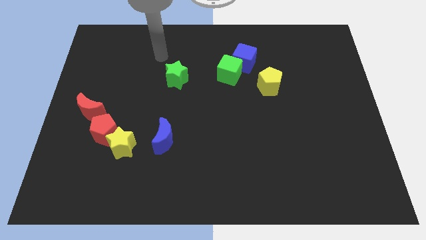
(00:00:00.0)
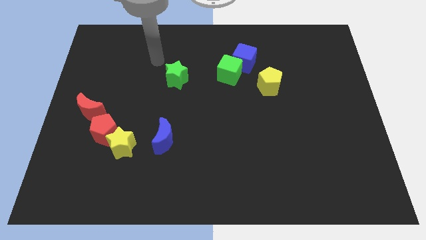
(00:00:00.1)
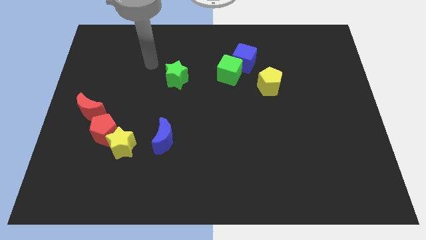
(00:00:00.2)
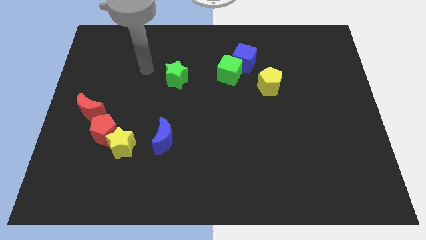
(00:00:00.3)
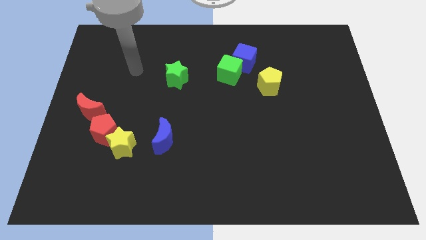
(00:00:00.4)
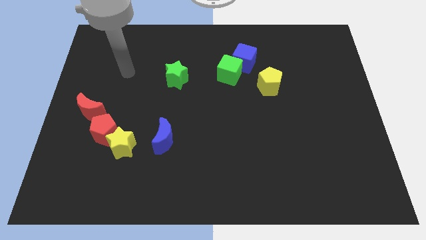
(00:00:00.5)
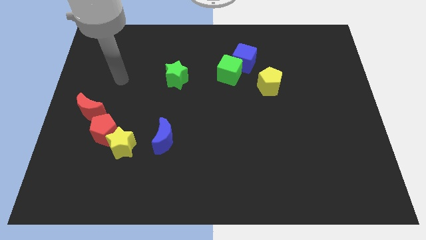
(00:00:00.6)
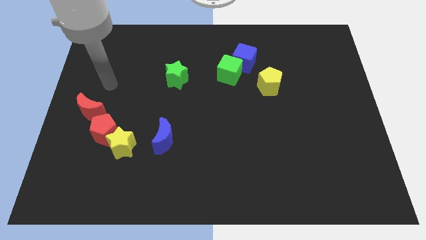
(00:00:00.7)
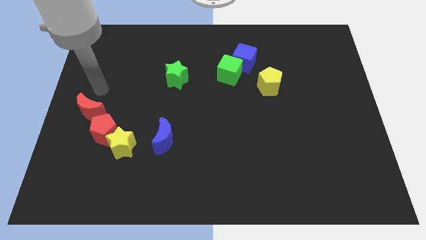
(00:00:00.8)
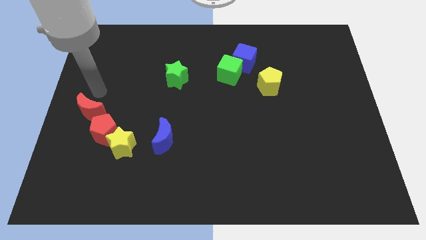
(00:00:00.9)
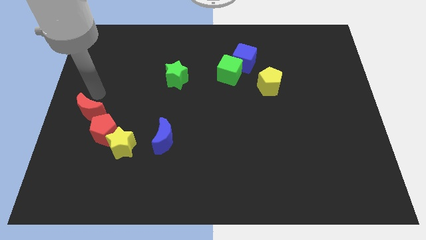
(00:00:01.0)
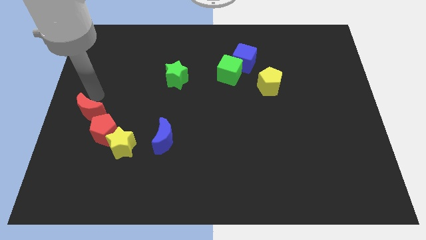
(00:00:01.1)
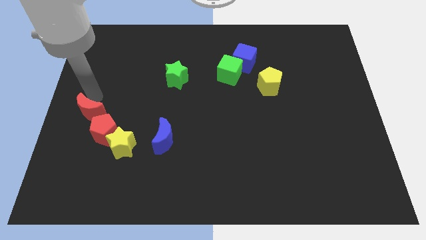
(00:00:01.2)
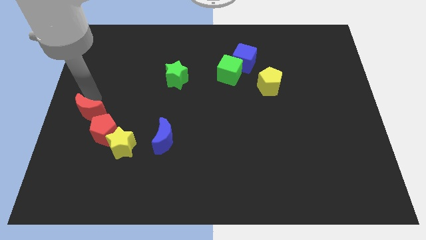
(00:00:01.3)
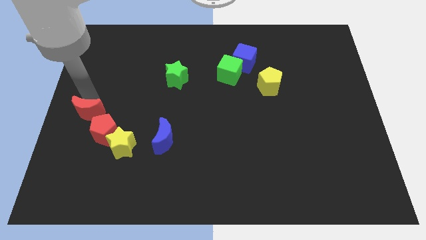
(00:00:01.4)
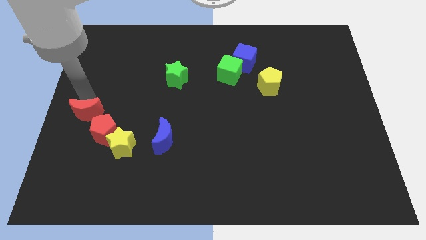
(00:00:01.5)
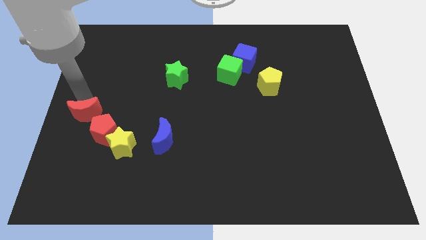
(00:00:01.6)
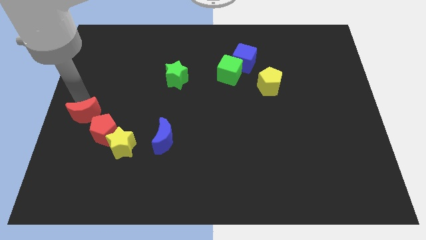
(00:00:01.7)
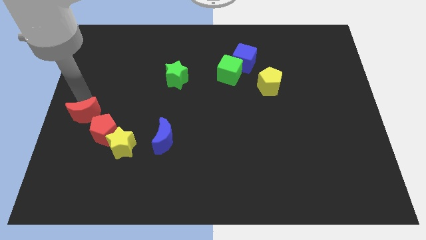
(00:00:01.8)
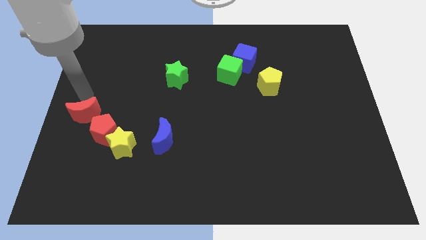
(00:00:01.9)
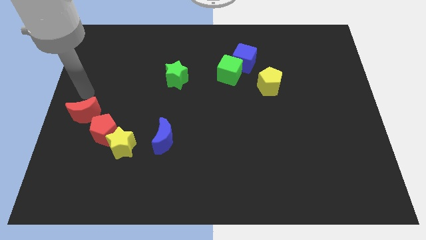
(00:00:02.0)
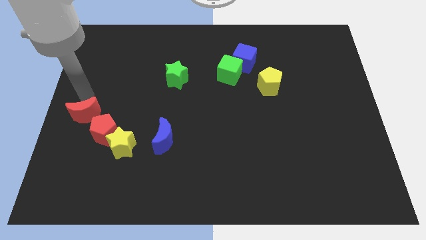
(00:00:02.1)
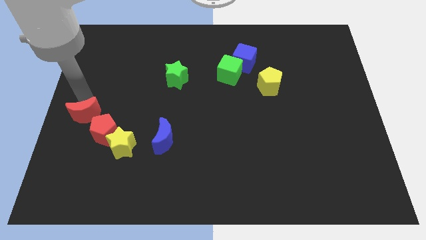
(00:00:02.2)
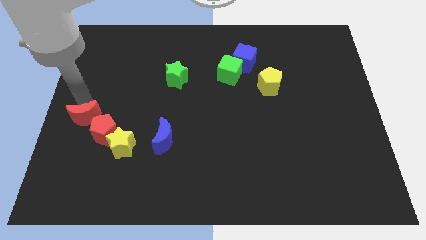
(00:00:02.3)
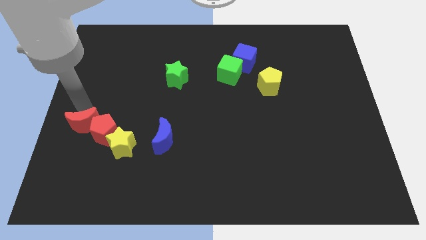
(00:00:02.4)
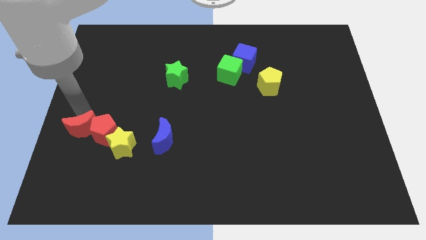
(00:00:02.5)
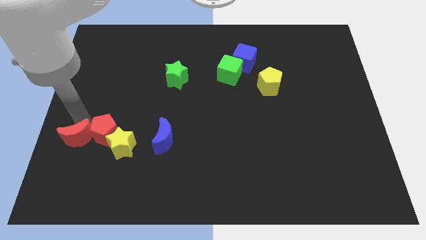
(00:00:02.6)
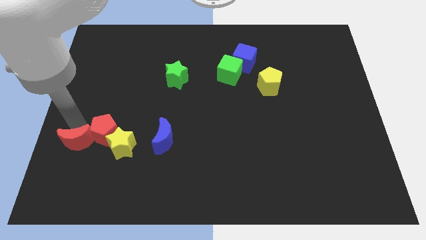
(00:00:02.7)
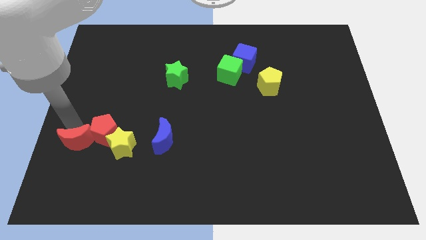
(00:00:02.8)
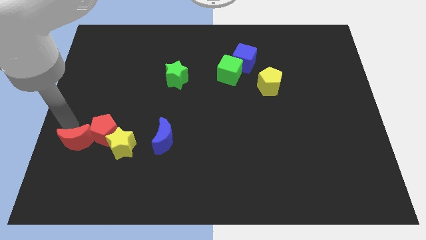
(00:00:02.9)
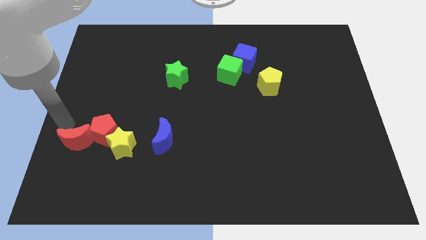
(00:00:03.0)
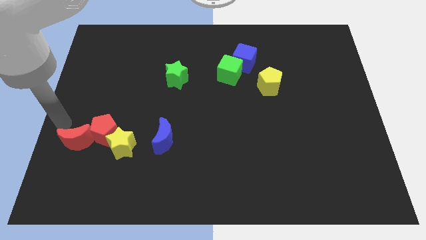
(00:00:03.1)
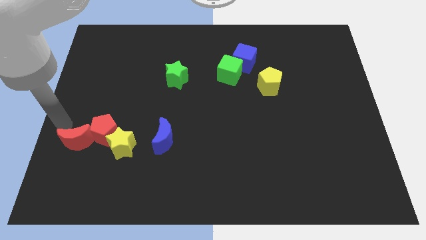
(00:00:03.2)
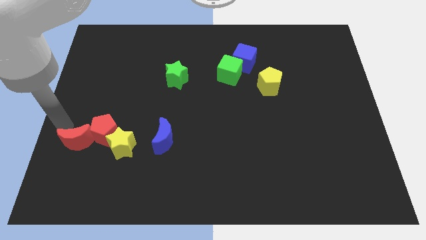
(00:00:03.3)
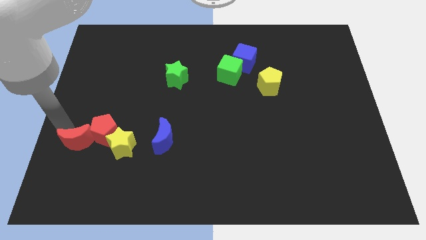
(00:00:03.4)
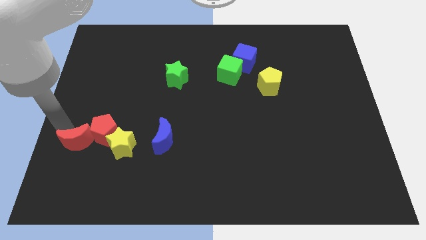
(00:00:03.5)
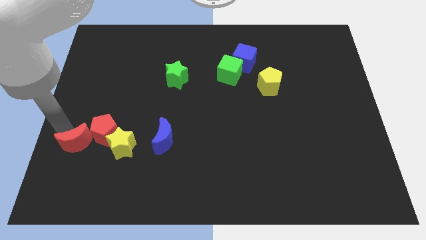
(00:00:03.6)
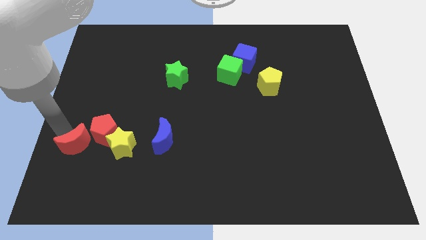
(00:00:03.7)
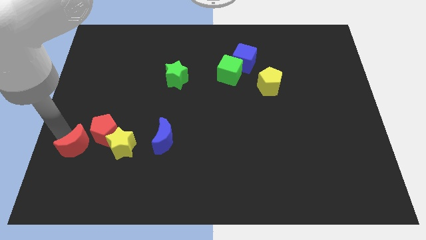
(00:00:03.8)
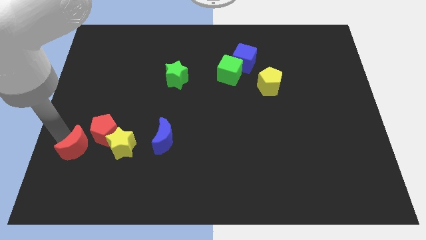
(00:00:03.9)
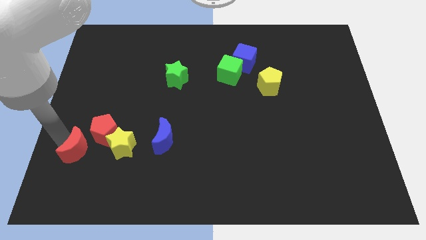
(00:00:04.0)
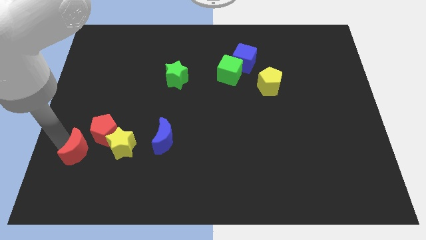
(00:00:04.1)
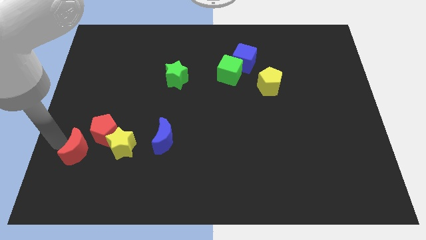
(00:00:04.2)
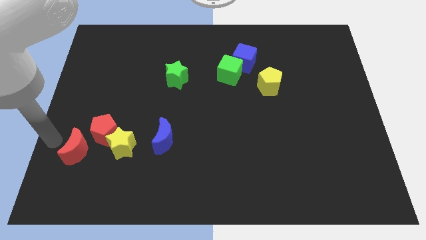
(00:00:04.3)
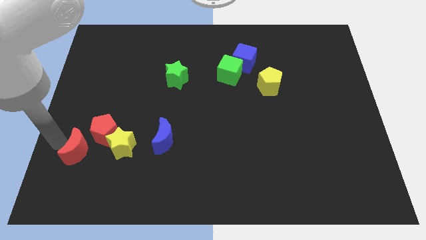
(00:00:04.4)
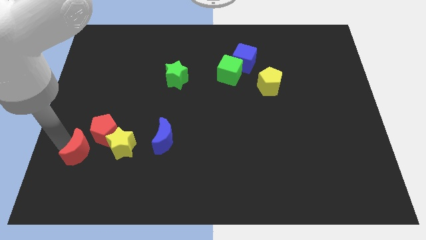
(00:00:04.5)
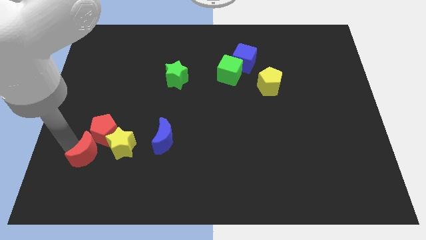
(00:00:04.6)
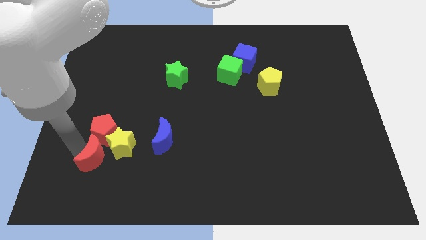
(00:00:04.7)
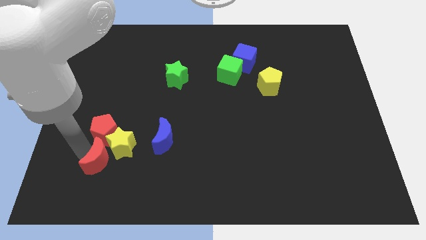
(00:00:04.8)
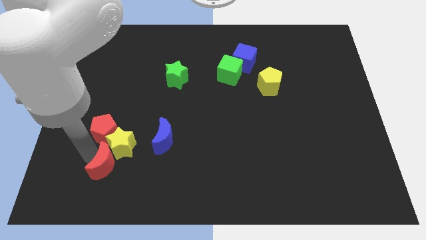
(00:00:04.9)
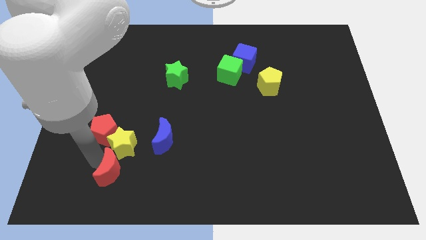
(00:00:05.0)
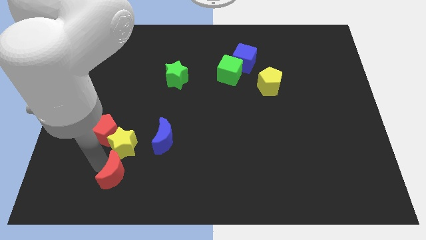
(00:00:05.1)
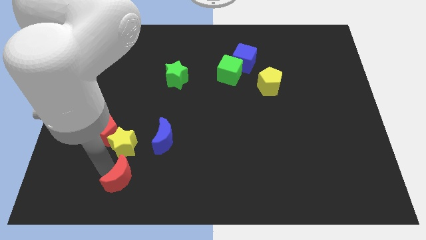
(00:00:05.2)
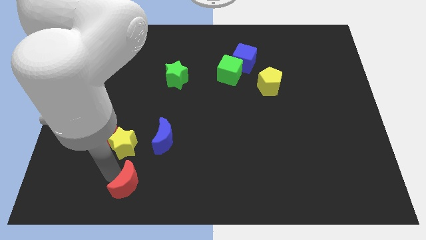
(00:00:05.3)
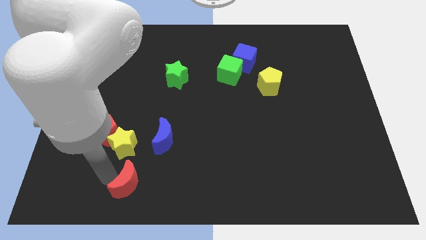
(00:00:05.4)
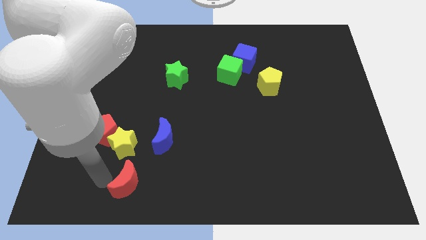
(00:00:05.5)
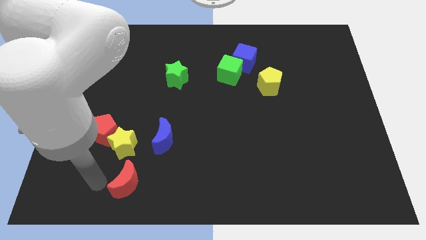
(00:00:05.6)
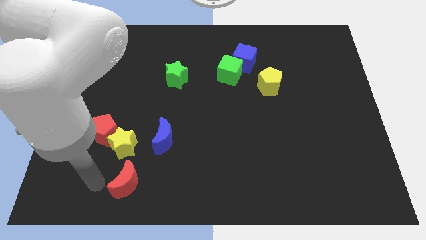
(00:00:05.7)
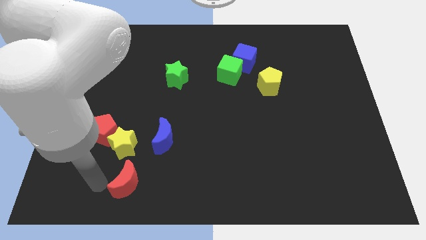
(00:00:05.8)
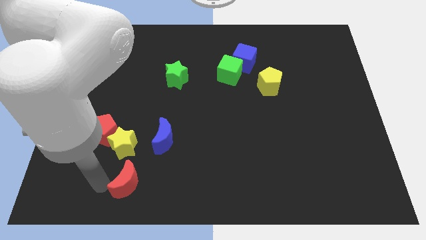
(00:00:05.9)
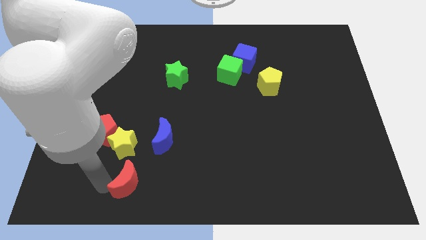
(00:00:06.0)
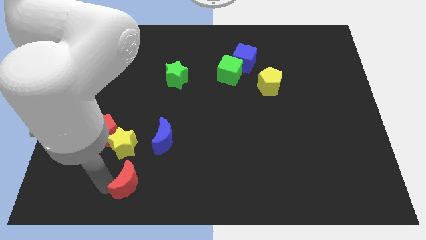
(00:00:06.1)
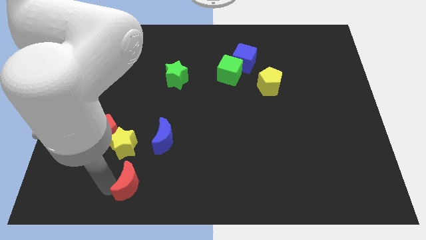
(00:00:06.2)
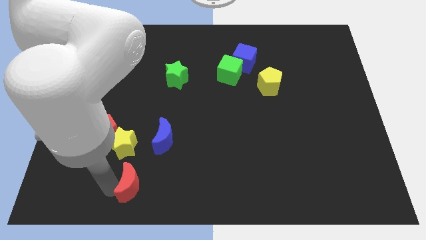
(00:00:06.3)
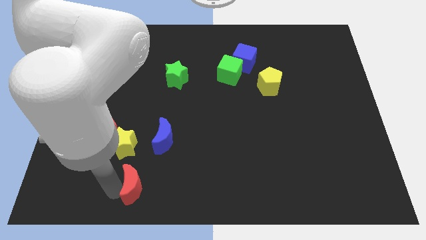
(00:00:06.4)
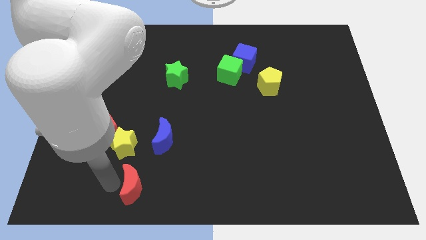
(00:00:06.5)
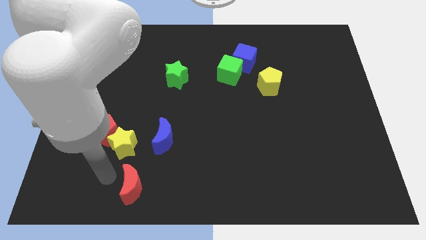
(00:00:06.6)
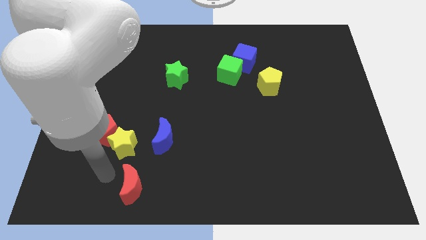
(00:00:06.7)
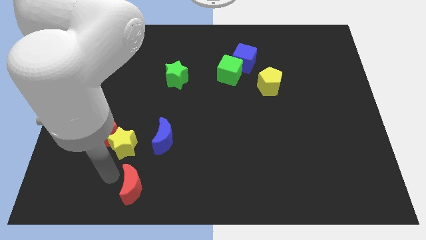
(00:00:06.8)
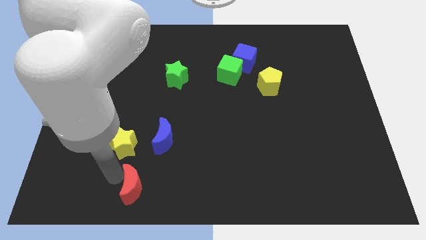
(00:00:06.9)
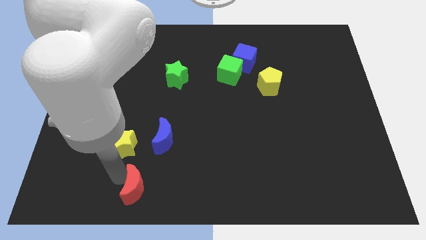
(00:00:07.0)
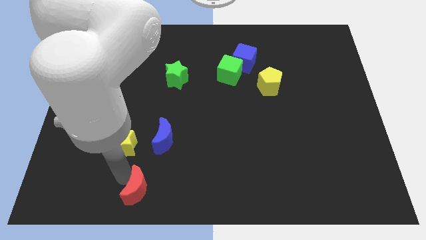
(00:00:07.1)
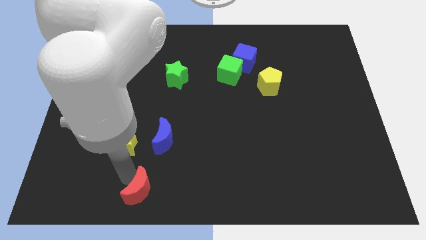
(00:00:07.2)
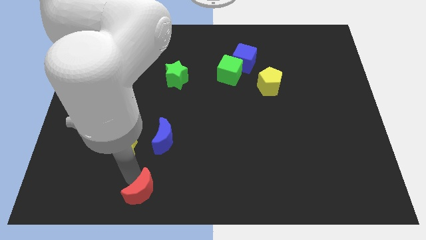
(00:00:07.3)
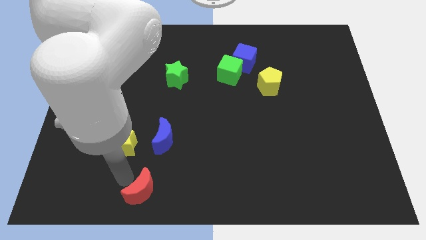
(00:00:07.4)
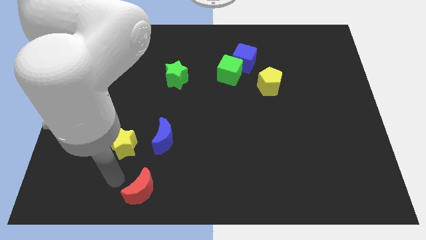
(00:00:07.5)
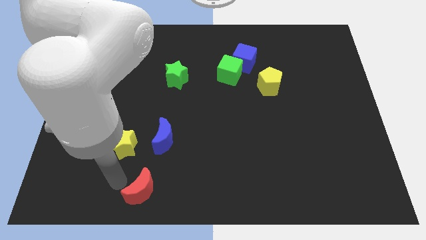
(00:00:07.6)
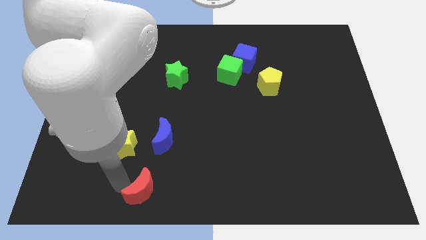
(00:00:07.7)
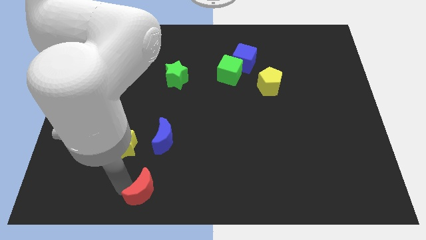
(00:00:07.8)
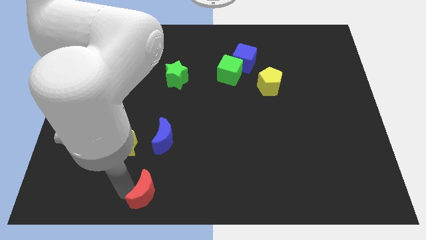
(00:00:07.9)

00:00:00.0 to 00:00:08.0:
move the red moon to the bottom
